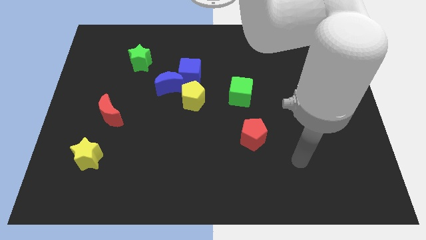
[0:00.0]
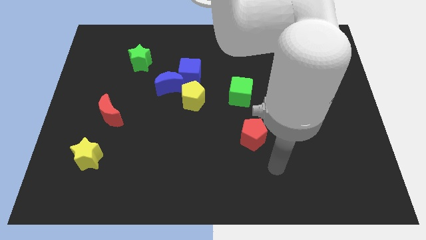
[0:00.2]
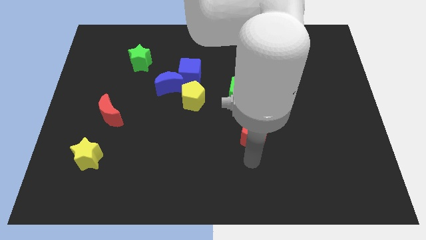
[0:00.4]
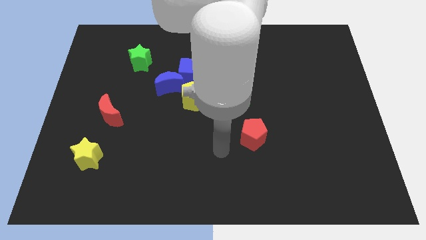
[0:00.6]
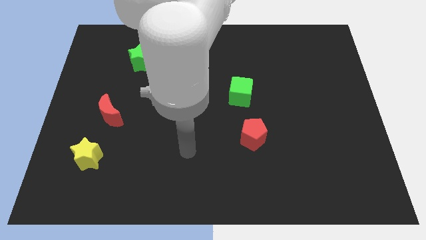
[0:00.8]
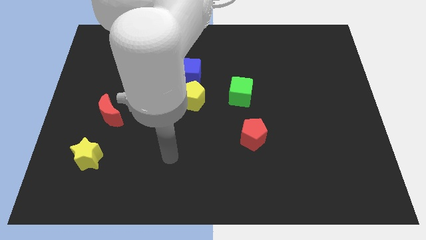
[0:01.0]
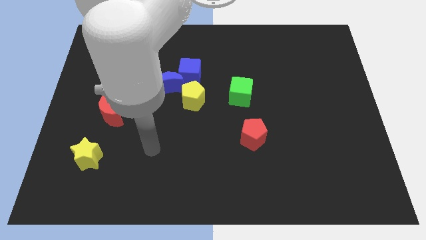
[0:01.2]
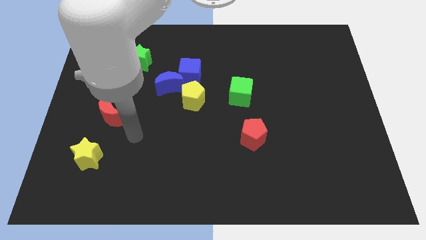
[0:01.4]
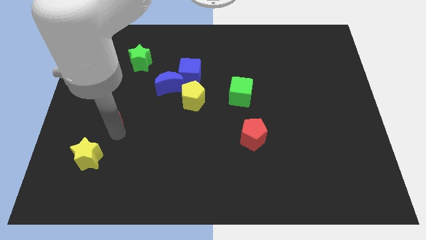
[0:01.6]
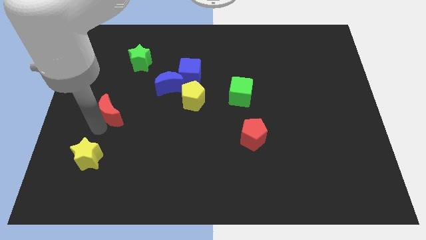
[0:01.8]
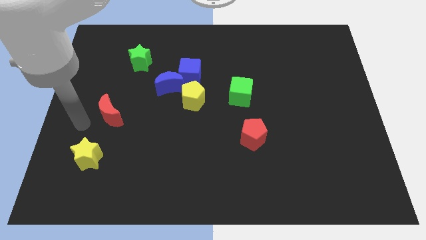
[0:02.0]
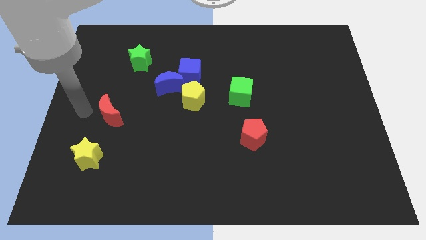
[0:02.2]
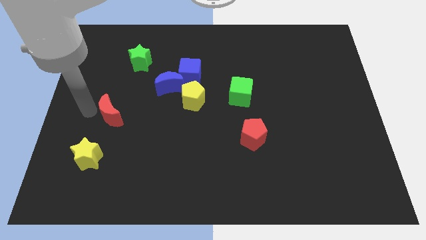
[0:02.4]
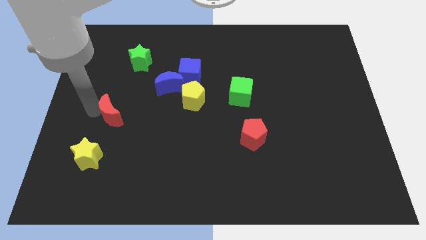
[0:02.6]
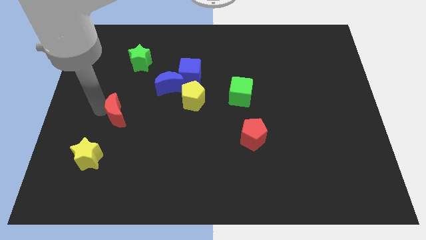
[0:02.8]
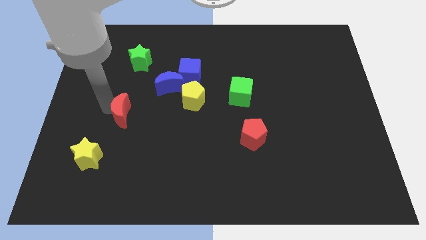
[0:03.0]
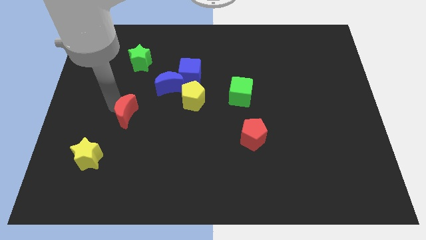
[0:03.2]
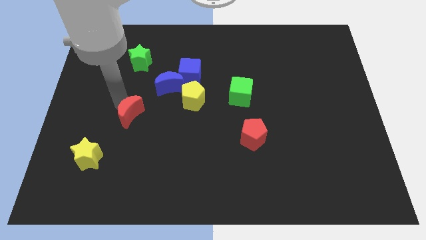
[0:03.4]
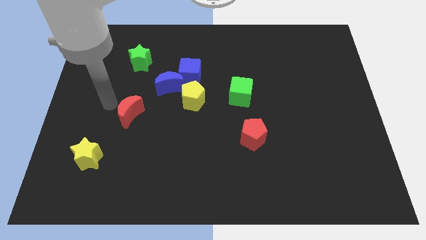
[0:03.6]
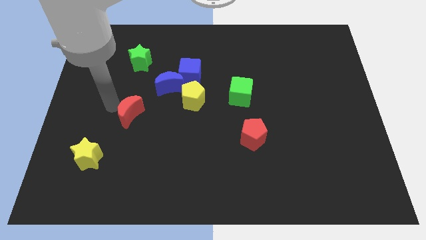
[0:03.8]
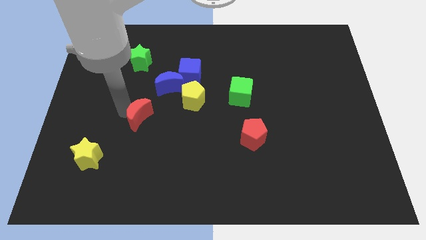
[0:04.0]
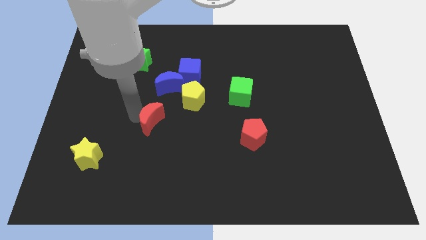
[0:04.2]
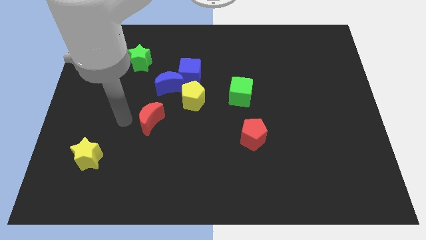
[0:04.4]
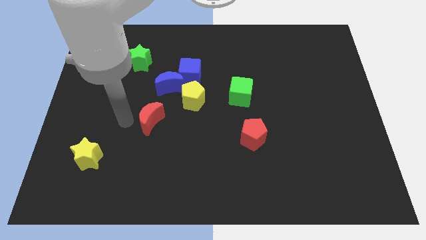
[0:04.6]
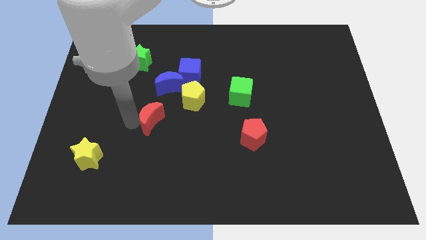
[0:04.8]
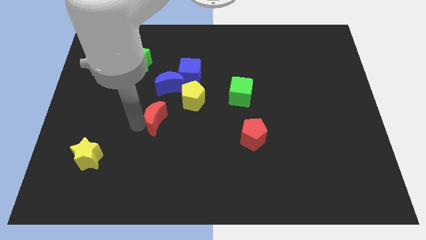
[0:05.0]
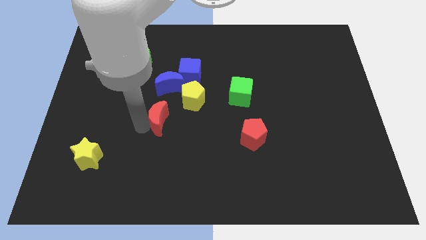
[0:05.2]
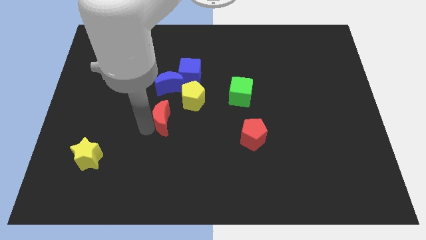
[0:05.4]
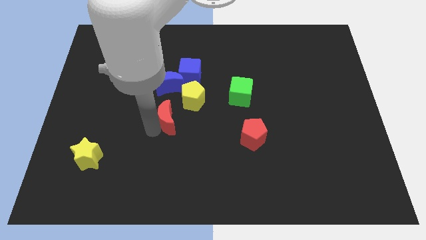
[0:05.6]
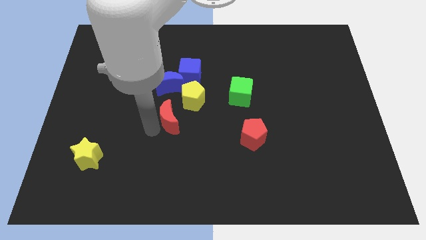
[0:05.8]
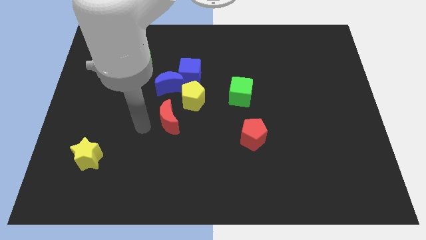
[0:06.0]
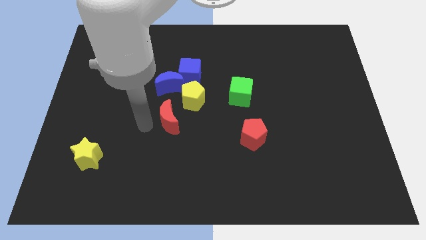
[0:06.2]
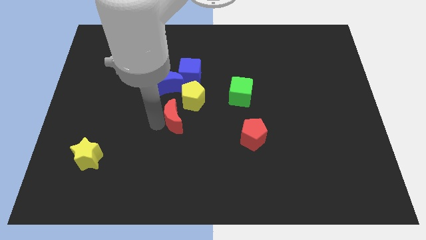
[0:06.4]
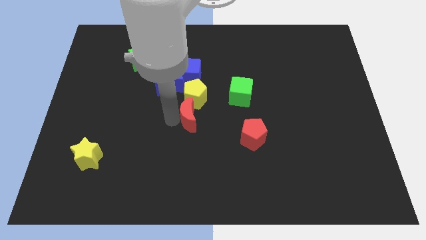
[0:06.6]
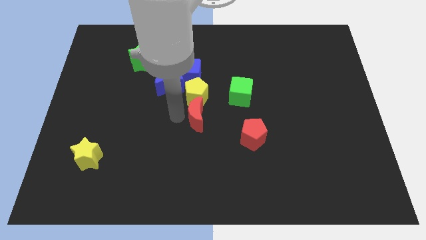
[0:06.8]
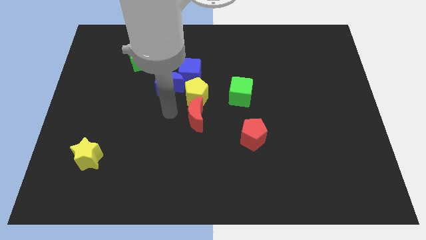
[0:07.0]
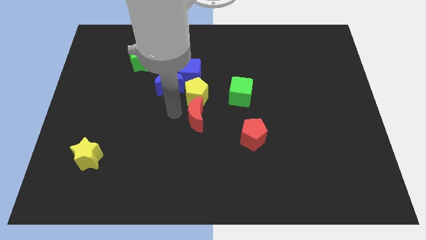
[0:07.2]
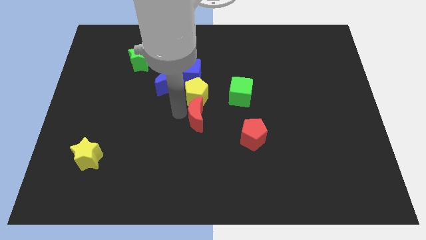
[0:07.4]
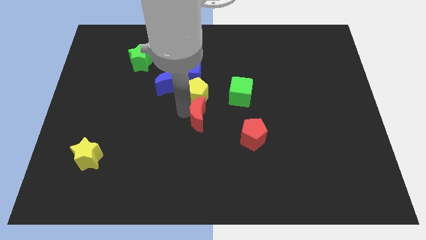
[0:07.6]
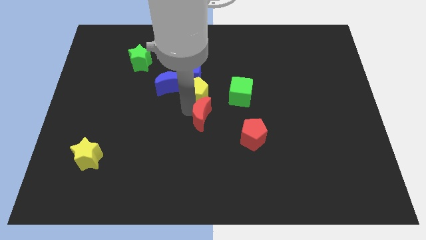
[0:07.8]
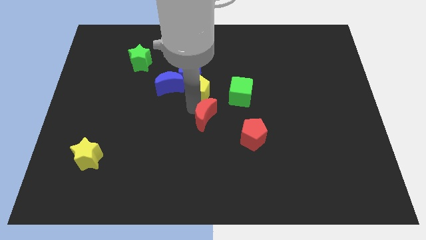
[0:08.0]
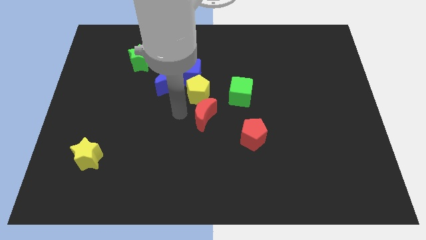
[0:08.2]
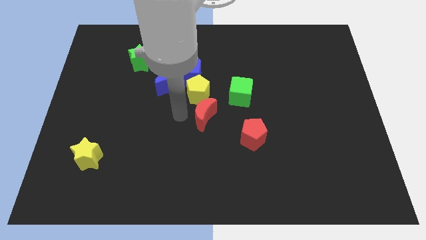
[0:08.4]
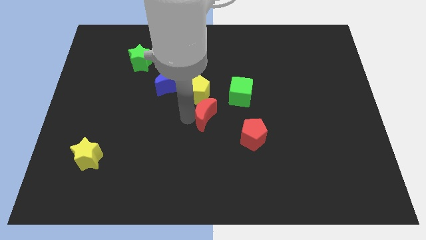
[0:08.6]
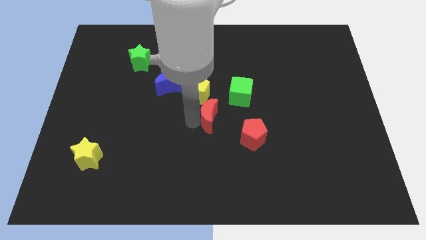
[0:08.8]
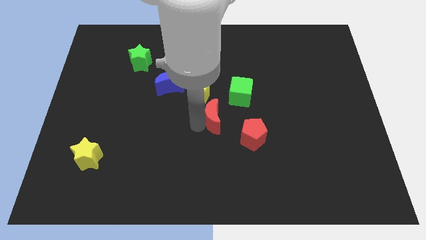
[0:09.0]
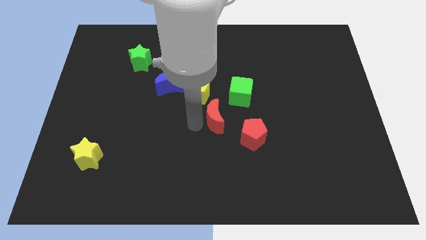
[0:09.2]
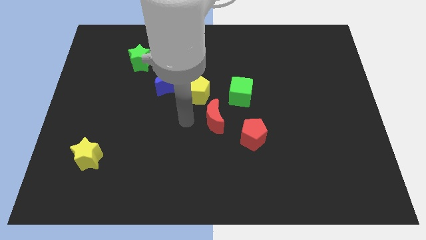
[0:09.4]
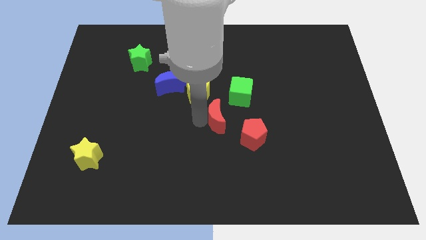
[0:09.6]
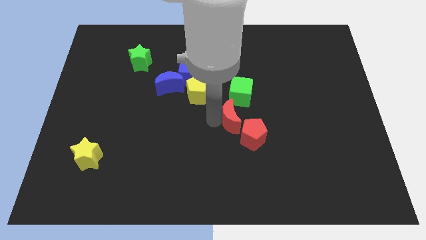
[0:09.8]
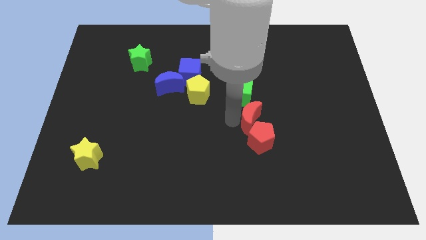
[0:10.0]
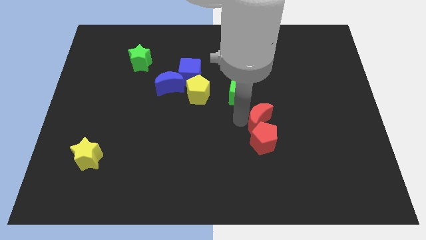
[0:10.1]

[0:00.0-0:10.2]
slide the red moon diagonally up and to the right of the red pentagon

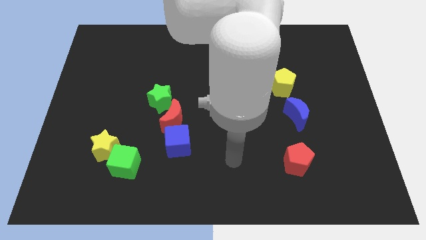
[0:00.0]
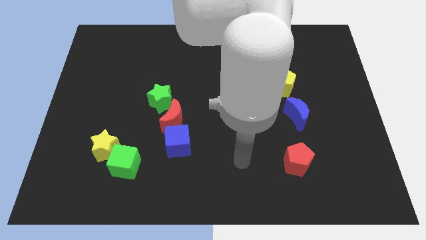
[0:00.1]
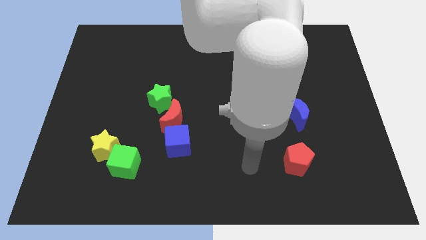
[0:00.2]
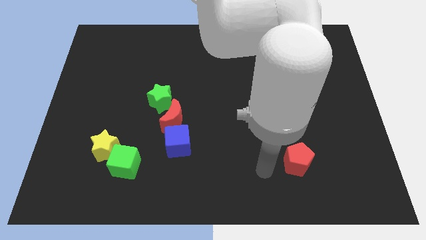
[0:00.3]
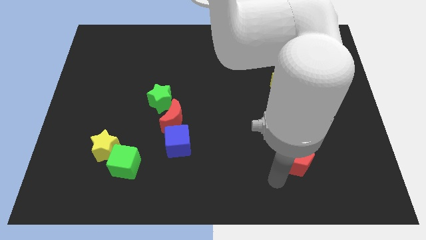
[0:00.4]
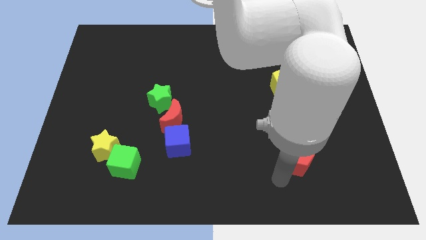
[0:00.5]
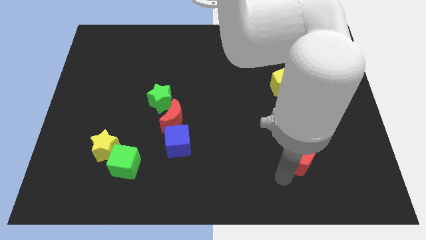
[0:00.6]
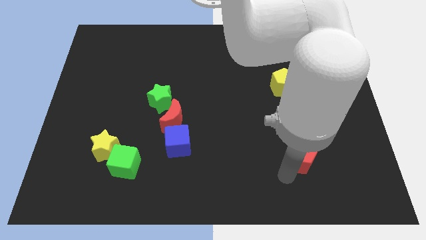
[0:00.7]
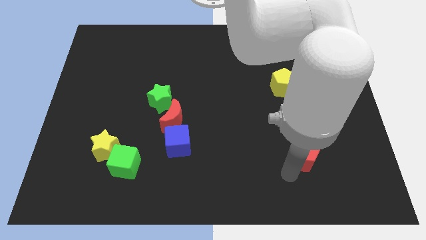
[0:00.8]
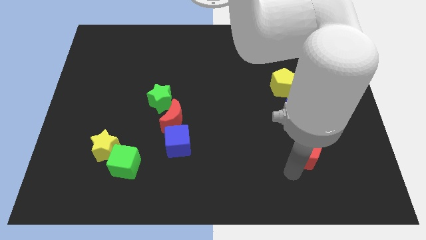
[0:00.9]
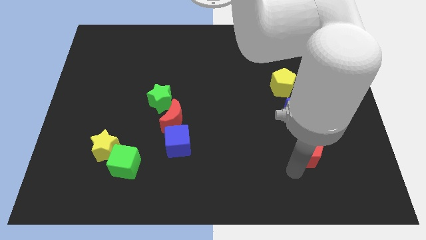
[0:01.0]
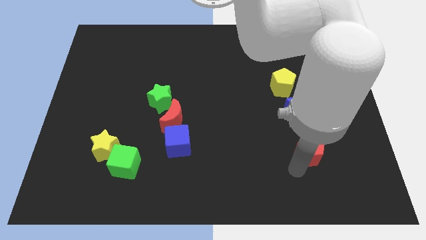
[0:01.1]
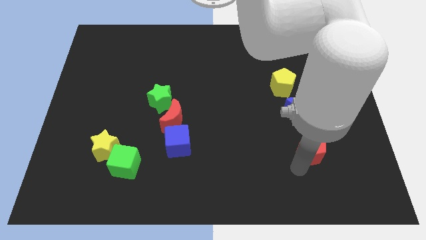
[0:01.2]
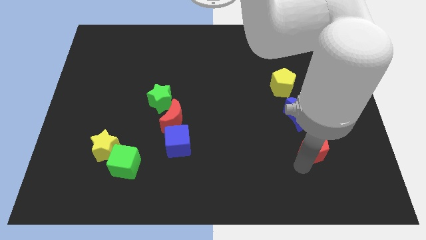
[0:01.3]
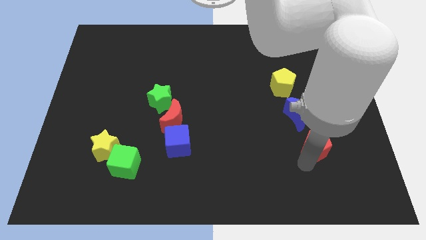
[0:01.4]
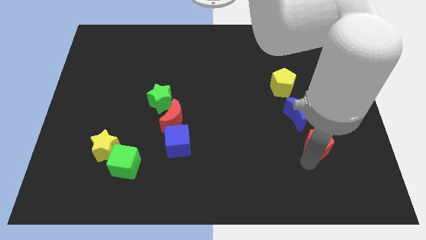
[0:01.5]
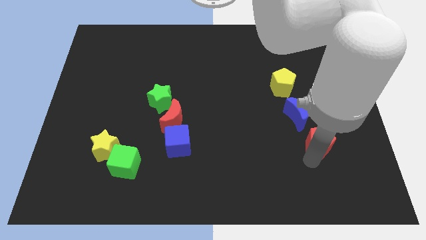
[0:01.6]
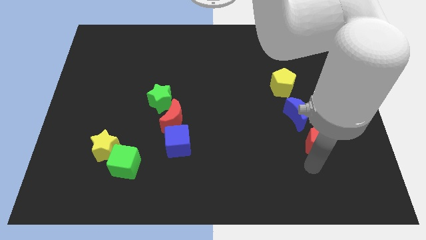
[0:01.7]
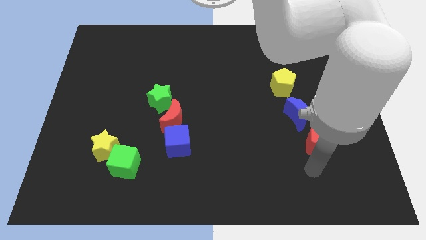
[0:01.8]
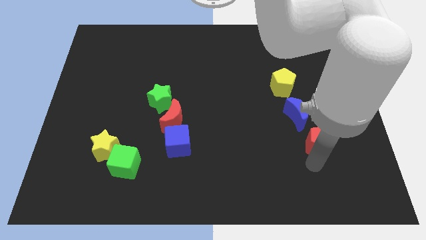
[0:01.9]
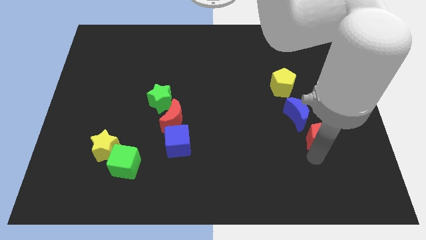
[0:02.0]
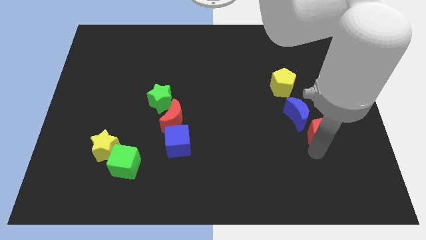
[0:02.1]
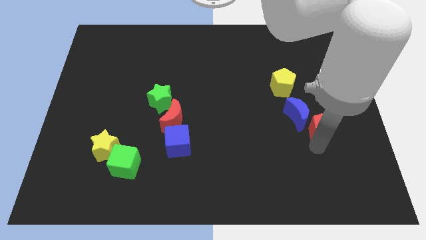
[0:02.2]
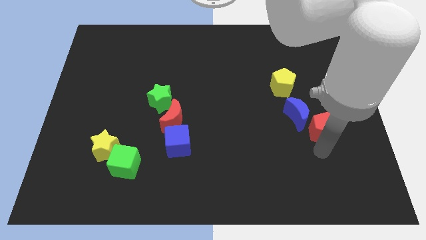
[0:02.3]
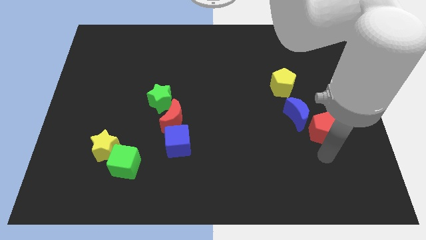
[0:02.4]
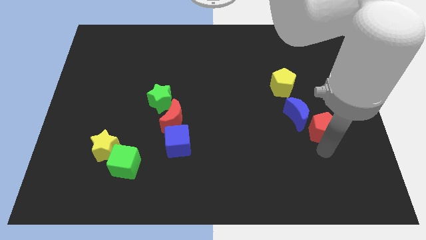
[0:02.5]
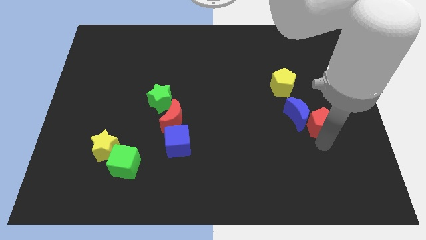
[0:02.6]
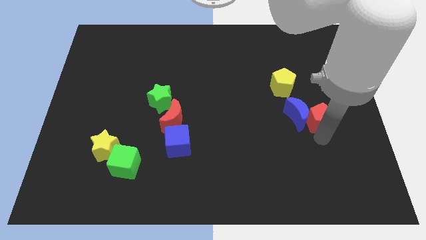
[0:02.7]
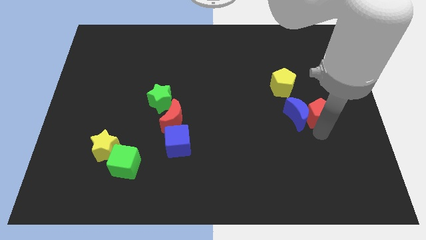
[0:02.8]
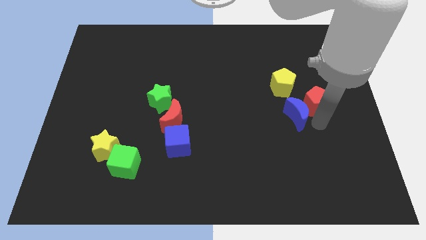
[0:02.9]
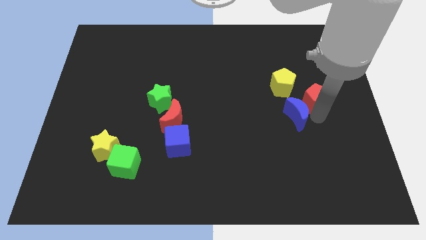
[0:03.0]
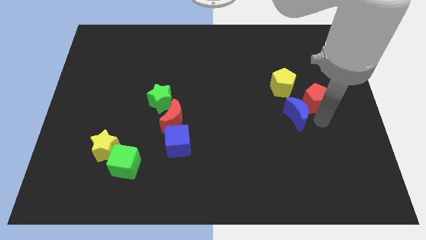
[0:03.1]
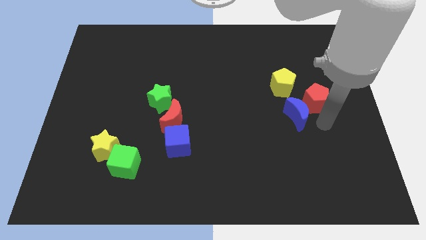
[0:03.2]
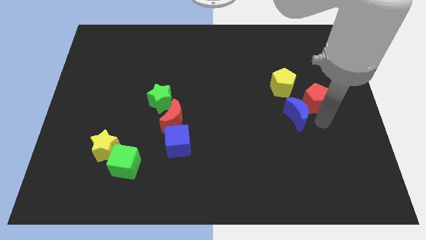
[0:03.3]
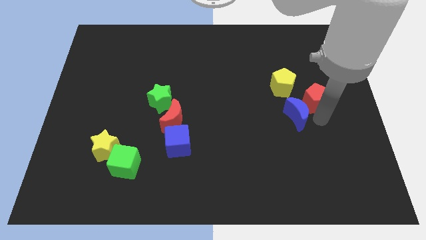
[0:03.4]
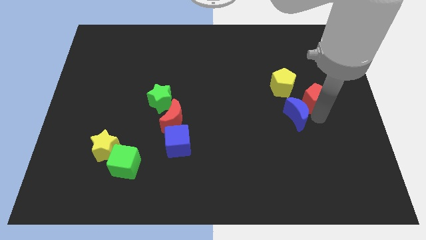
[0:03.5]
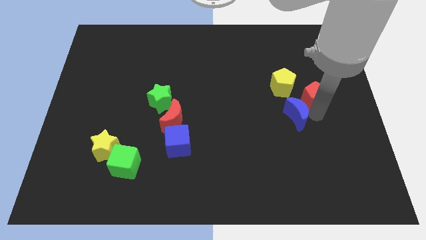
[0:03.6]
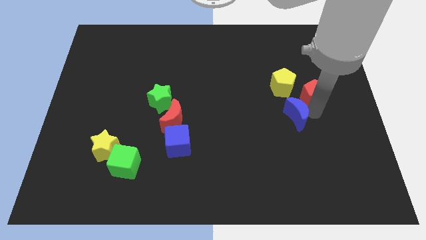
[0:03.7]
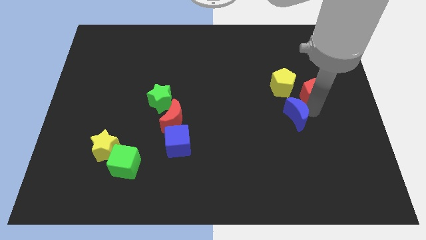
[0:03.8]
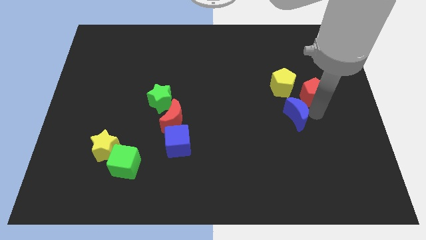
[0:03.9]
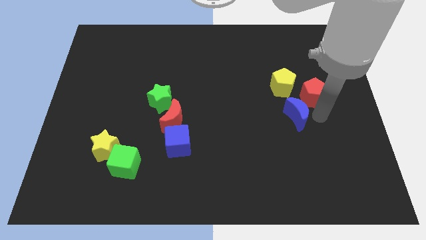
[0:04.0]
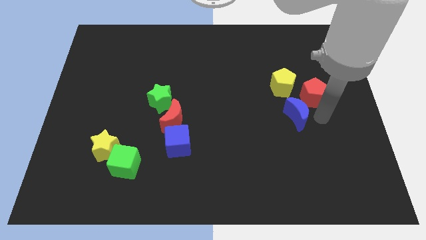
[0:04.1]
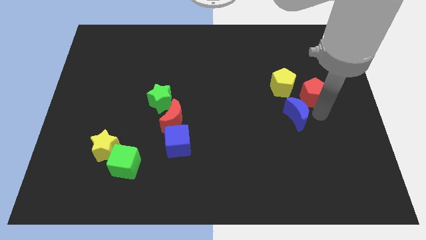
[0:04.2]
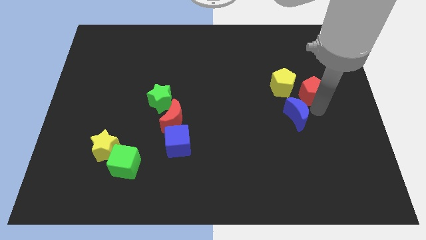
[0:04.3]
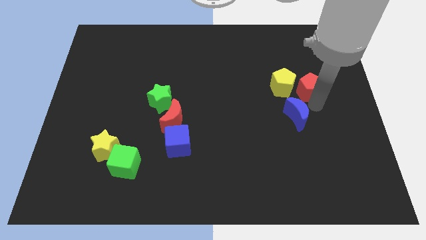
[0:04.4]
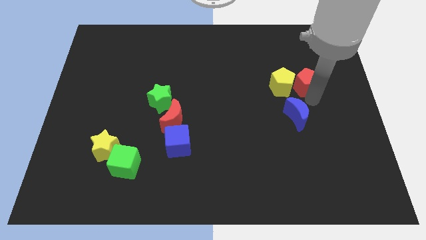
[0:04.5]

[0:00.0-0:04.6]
put the red pentagon to the top right of the yellow pentagon
